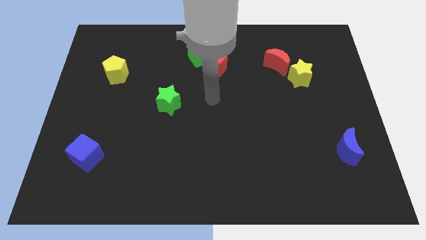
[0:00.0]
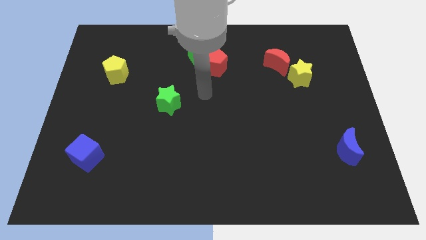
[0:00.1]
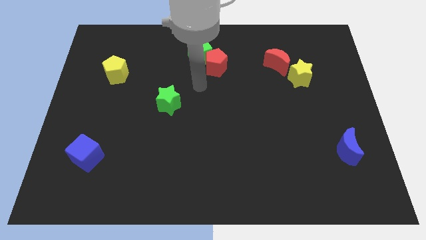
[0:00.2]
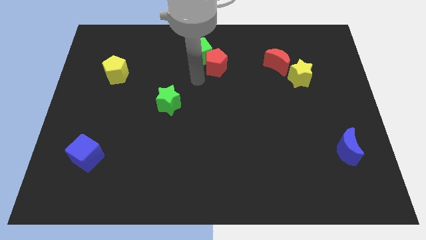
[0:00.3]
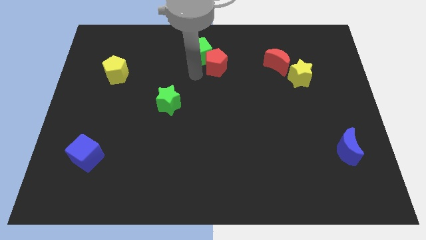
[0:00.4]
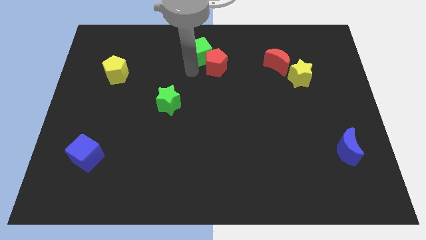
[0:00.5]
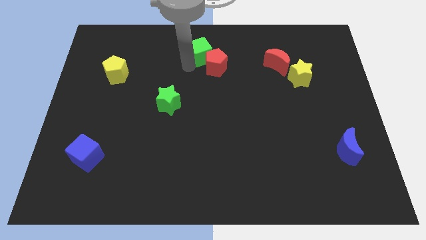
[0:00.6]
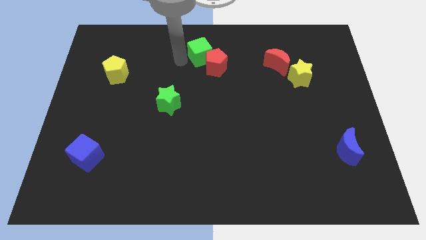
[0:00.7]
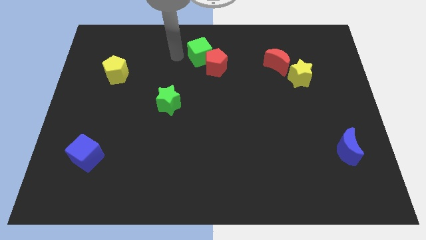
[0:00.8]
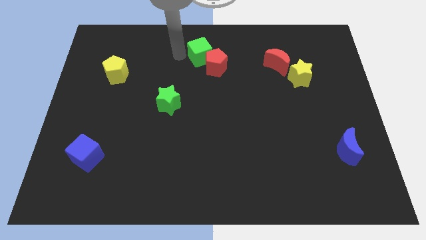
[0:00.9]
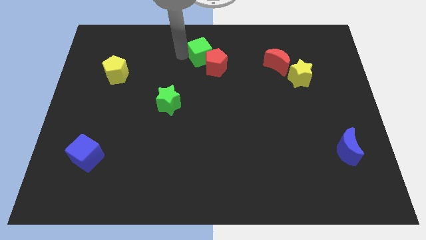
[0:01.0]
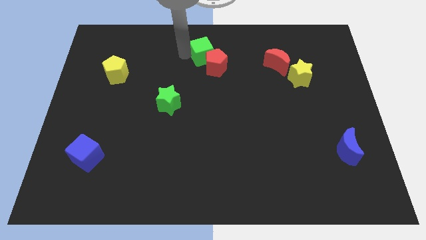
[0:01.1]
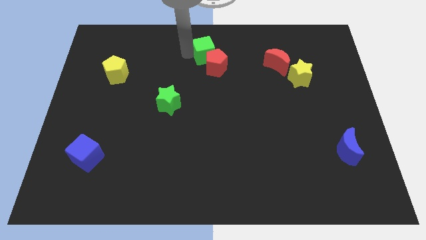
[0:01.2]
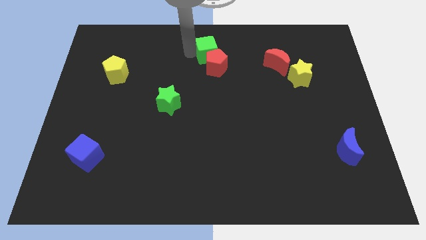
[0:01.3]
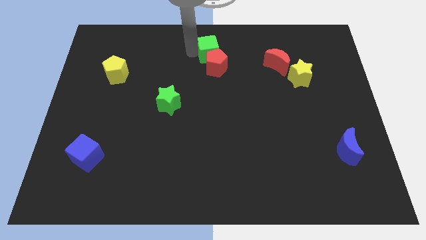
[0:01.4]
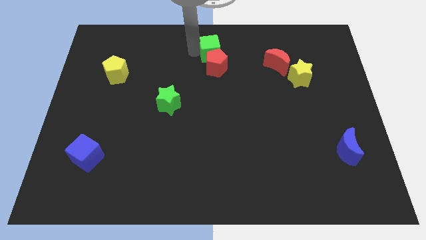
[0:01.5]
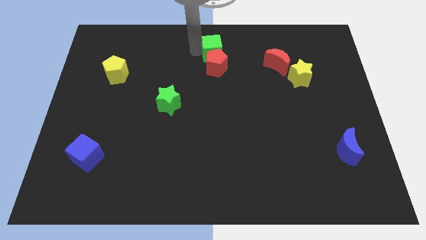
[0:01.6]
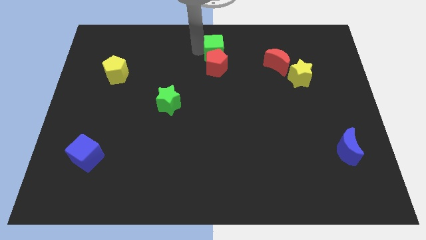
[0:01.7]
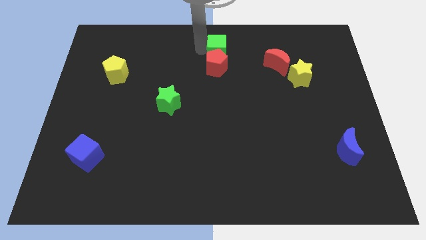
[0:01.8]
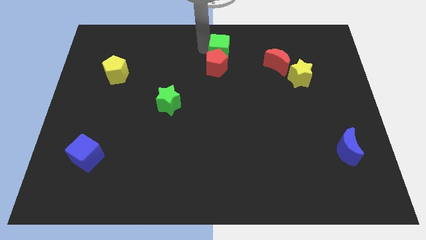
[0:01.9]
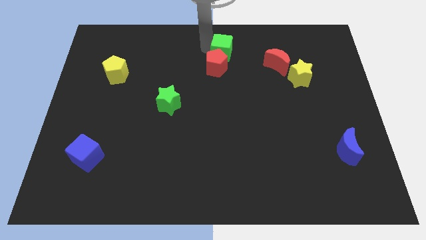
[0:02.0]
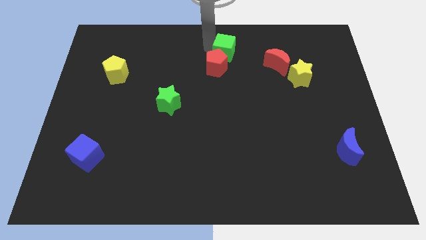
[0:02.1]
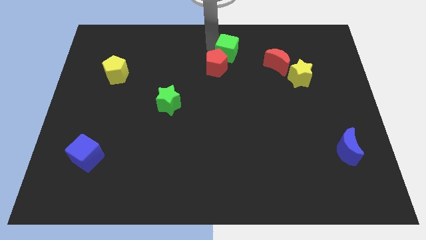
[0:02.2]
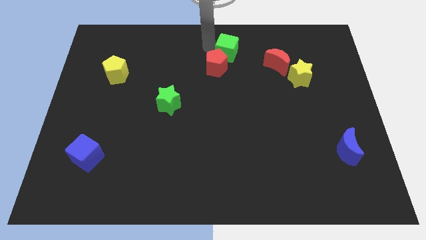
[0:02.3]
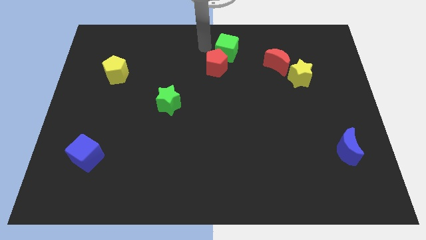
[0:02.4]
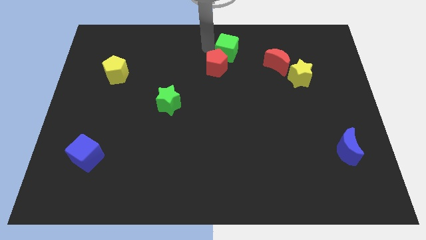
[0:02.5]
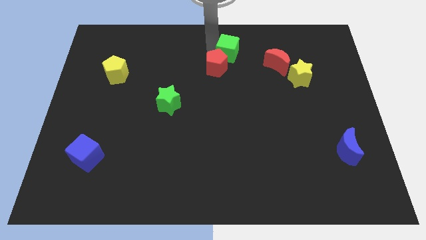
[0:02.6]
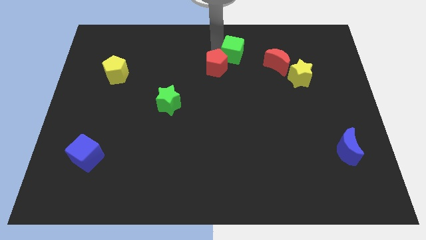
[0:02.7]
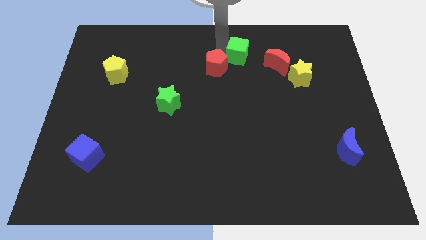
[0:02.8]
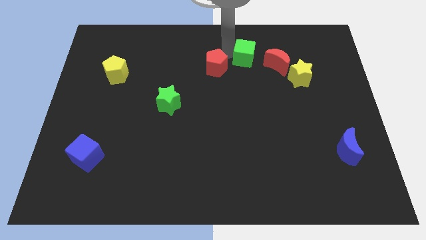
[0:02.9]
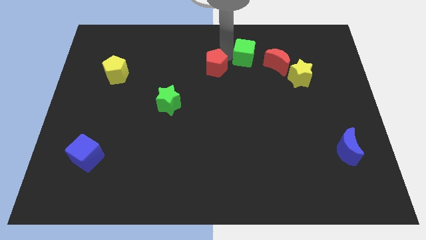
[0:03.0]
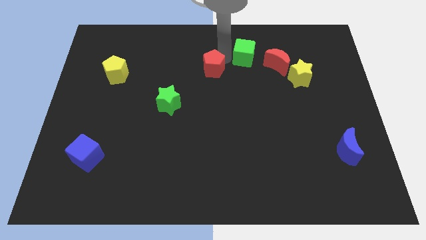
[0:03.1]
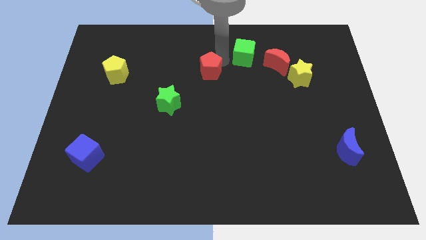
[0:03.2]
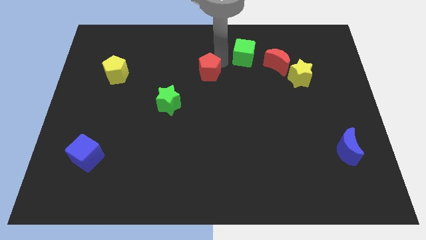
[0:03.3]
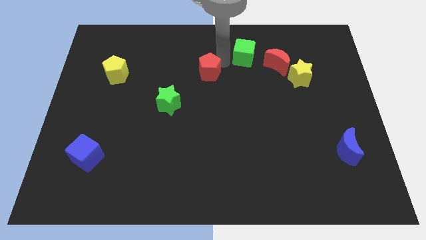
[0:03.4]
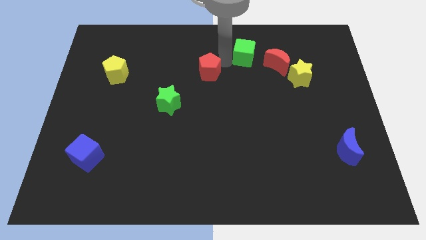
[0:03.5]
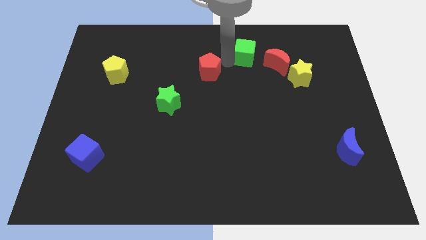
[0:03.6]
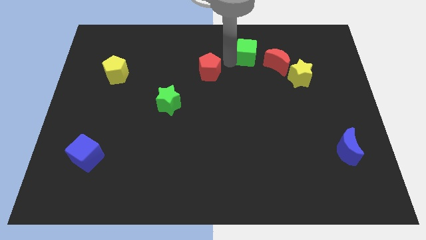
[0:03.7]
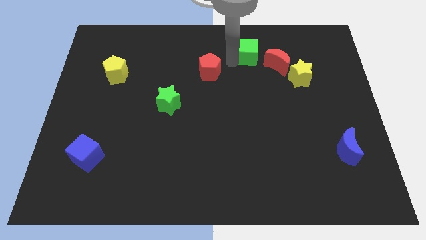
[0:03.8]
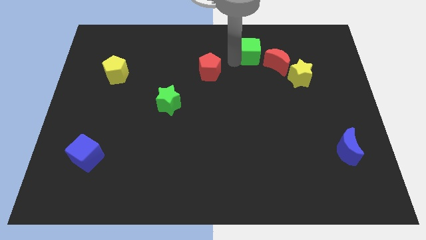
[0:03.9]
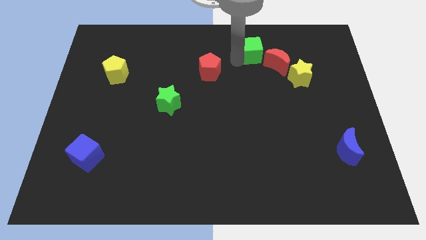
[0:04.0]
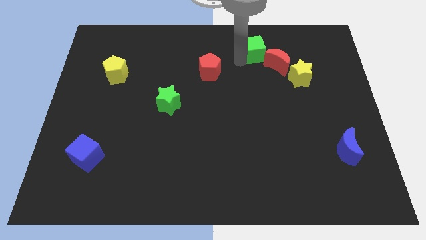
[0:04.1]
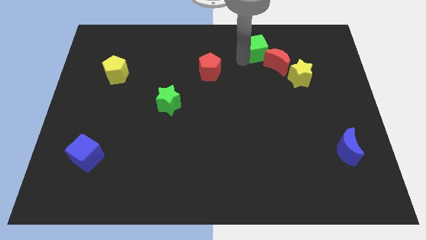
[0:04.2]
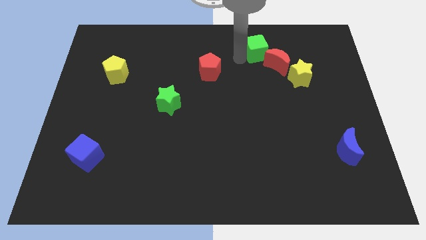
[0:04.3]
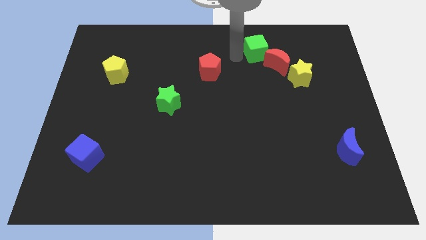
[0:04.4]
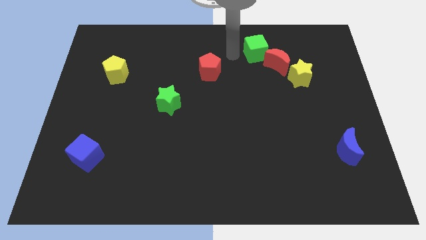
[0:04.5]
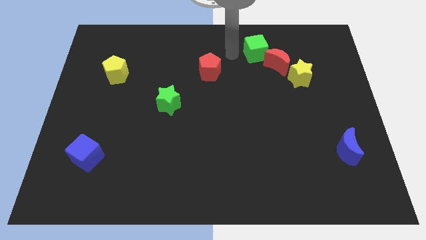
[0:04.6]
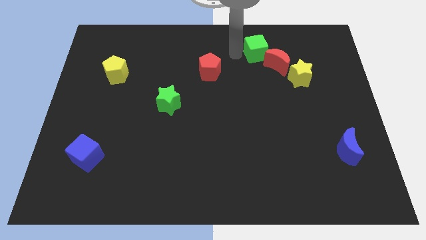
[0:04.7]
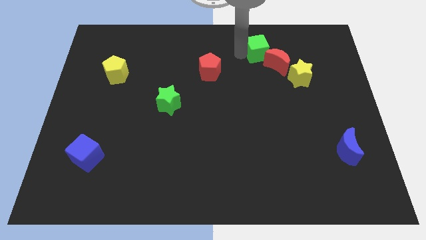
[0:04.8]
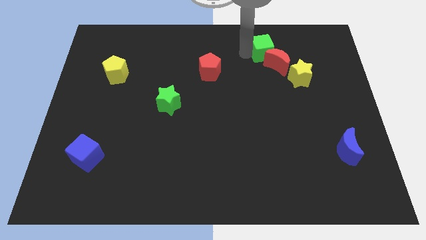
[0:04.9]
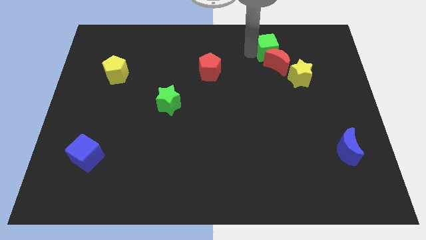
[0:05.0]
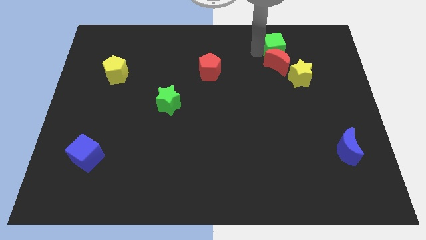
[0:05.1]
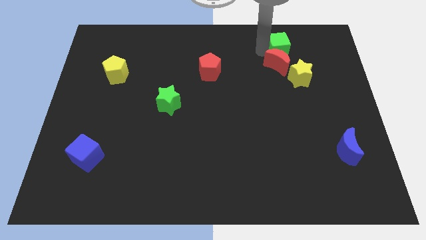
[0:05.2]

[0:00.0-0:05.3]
move the green cube to the right

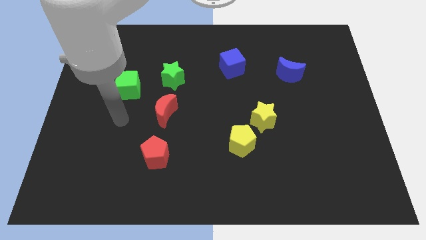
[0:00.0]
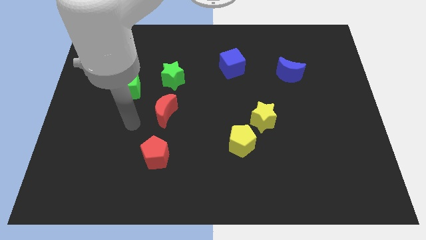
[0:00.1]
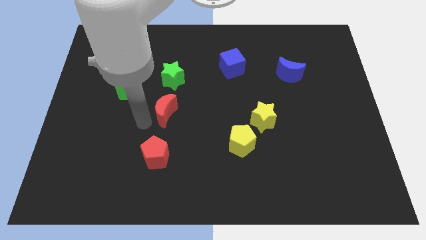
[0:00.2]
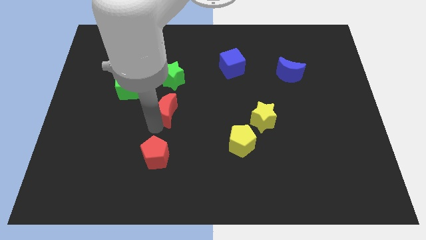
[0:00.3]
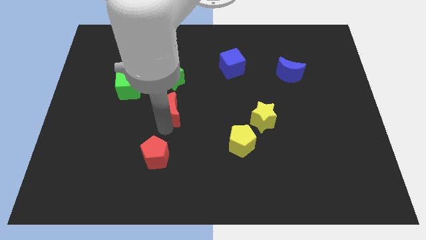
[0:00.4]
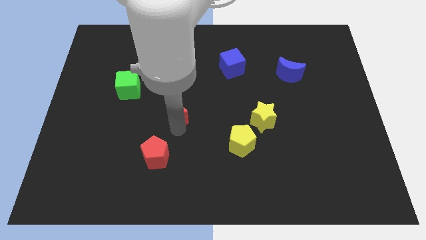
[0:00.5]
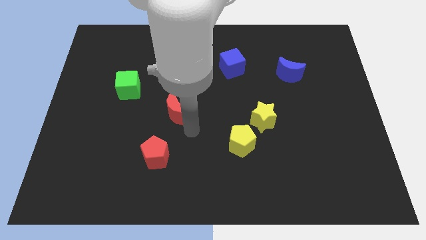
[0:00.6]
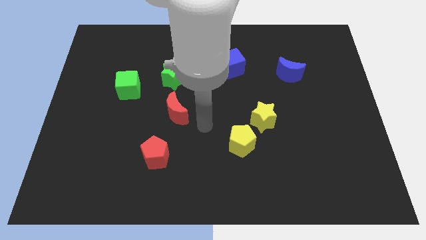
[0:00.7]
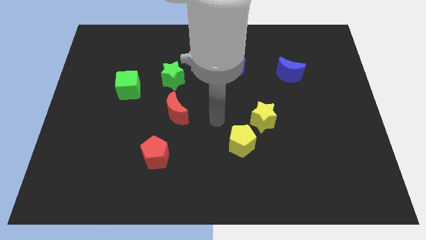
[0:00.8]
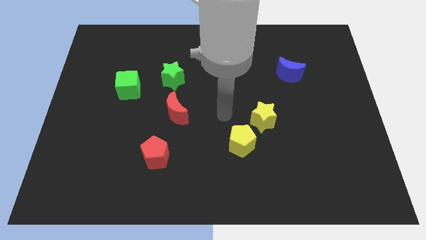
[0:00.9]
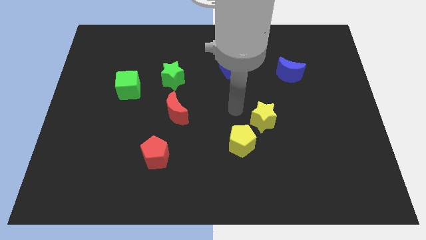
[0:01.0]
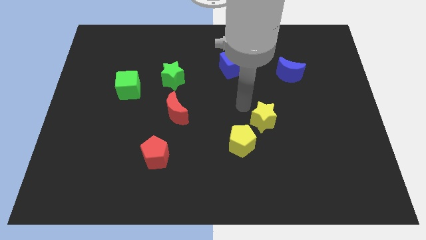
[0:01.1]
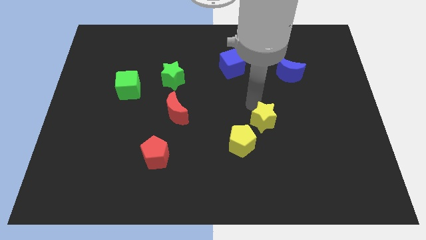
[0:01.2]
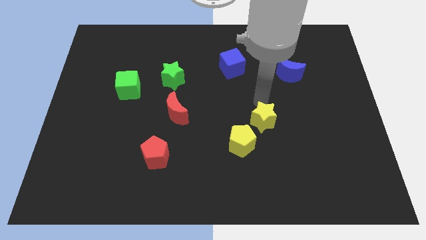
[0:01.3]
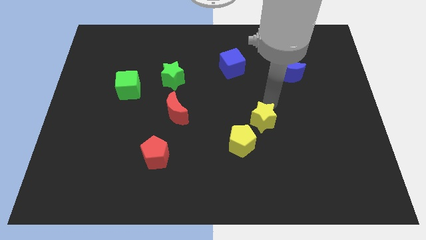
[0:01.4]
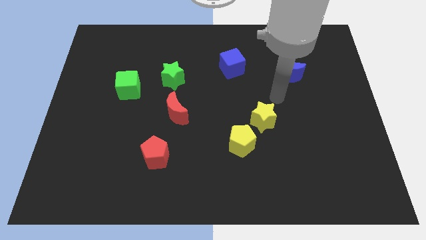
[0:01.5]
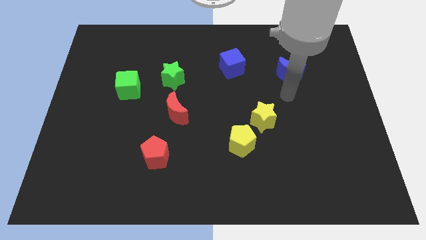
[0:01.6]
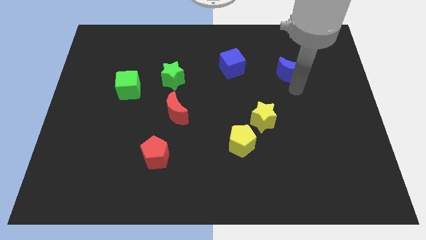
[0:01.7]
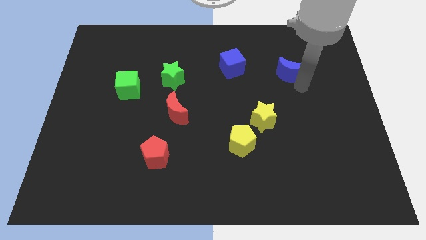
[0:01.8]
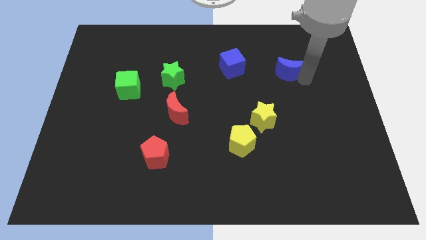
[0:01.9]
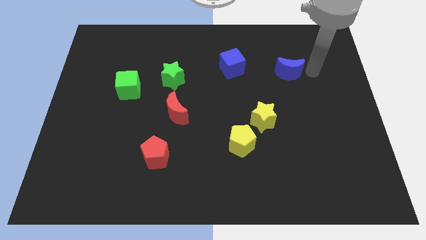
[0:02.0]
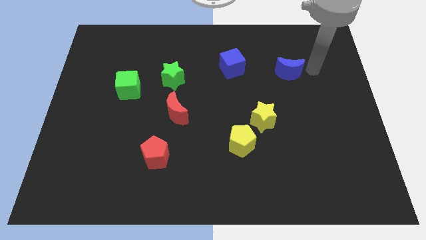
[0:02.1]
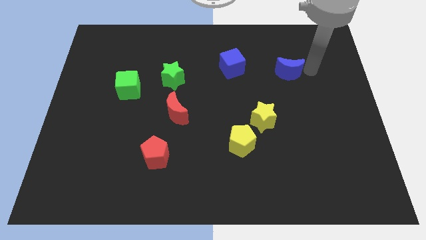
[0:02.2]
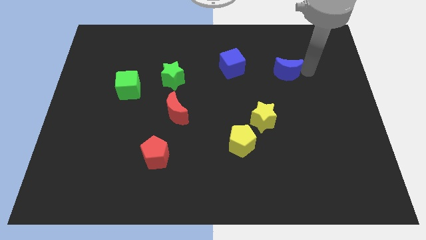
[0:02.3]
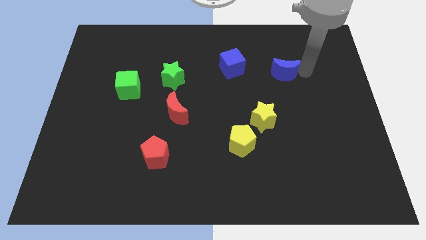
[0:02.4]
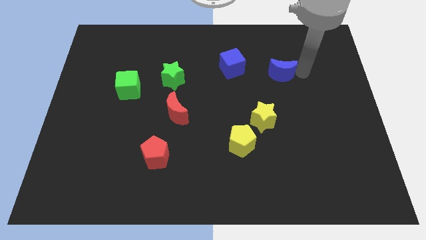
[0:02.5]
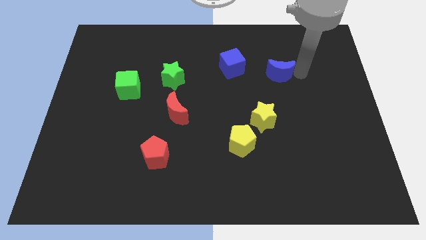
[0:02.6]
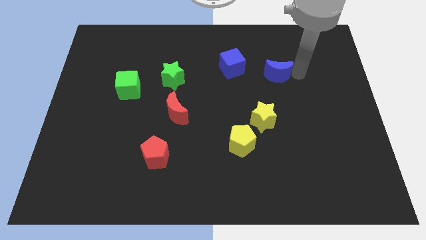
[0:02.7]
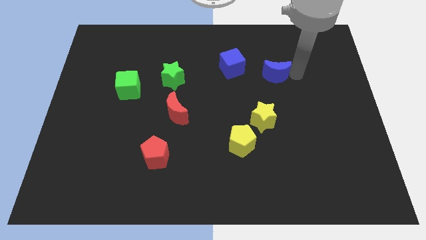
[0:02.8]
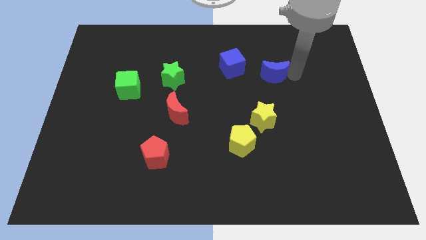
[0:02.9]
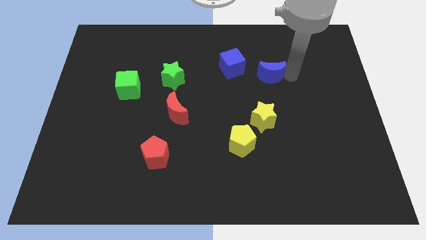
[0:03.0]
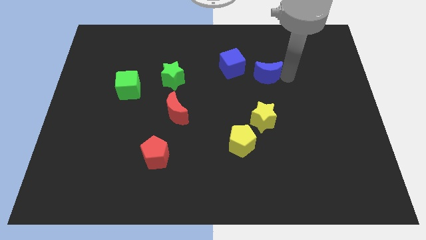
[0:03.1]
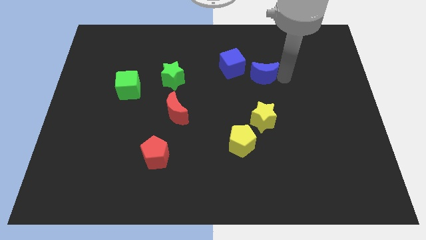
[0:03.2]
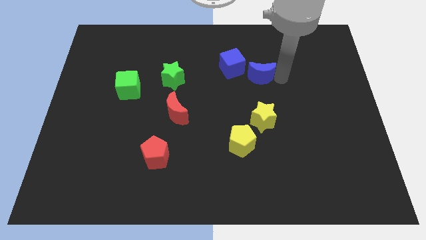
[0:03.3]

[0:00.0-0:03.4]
move the blue moon somewhat left
